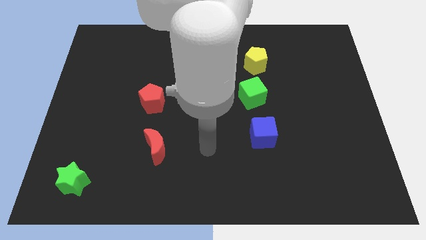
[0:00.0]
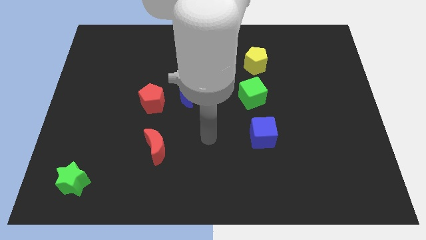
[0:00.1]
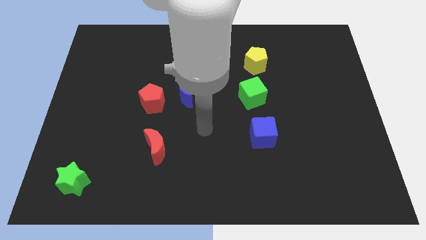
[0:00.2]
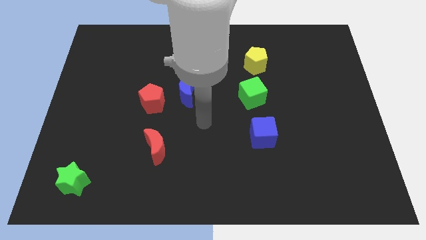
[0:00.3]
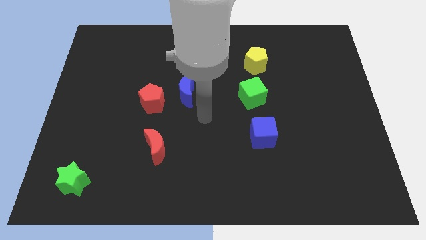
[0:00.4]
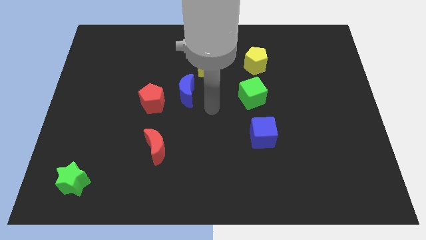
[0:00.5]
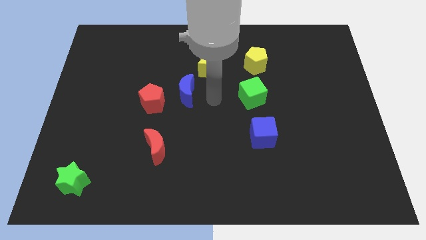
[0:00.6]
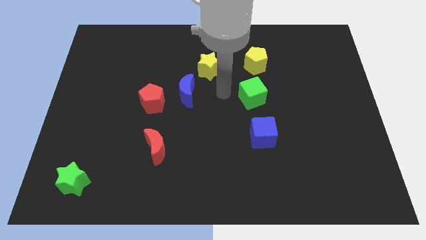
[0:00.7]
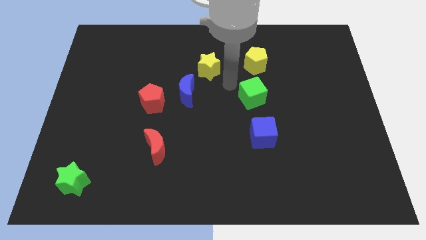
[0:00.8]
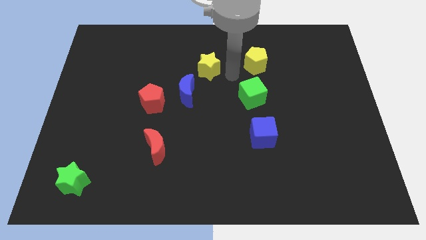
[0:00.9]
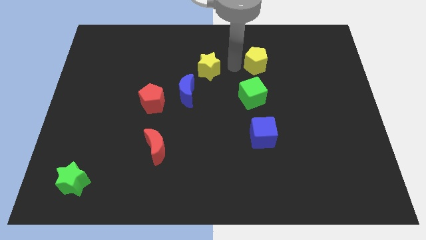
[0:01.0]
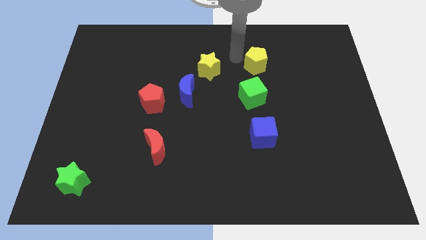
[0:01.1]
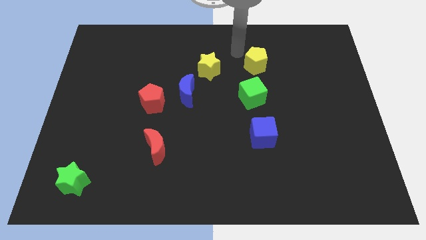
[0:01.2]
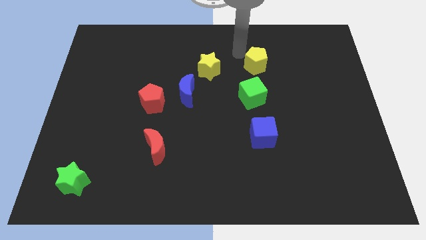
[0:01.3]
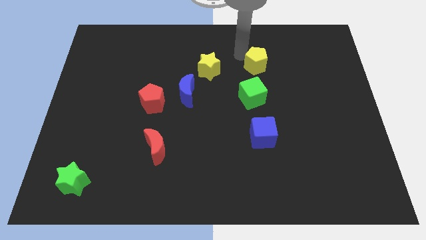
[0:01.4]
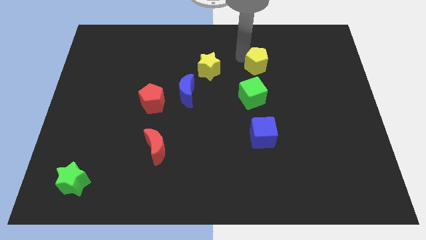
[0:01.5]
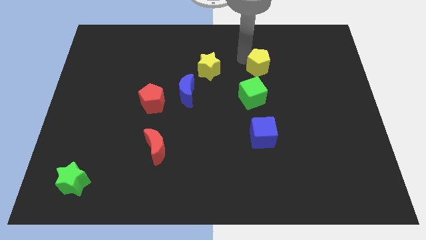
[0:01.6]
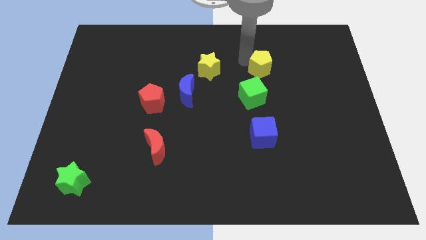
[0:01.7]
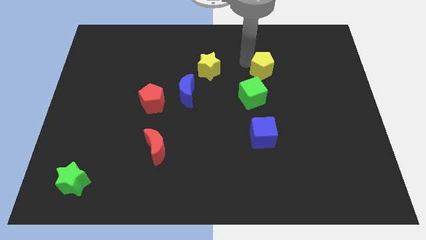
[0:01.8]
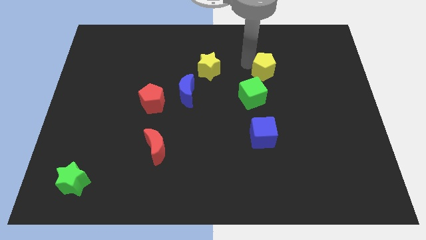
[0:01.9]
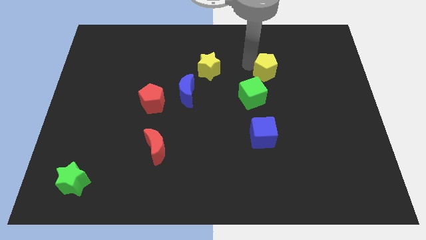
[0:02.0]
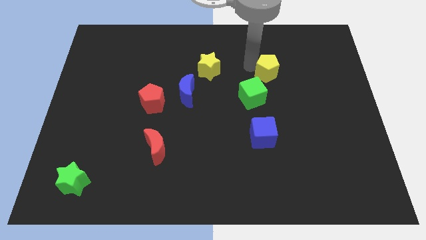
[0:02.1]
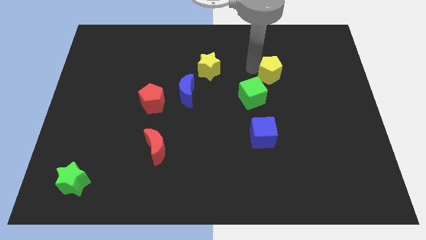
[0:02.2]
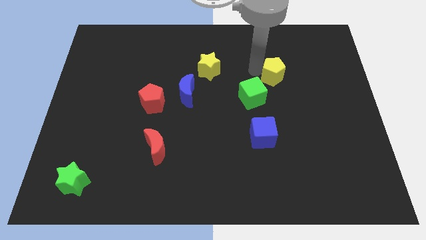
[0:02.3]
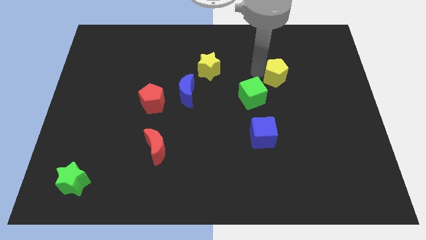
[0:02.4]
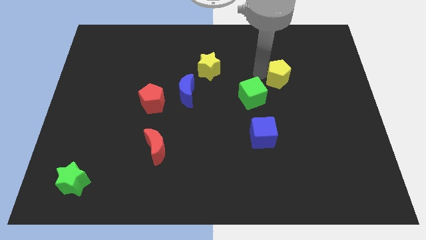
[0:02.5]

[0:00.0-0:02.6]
push the yellow pentagon downwards and to the right slightly

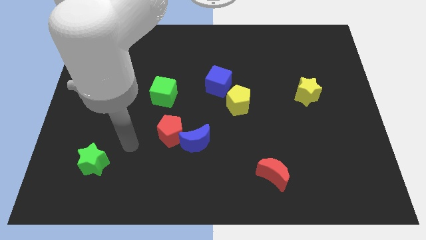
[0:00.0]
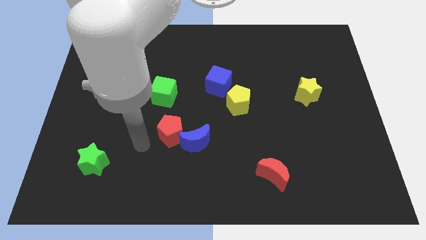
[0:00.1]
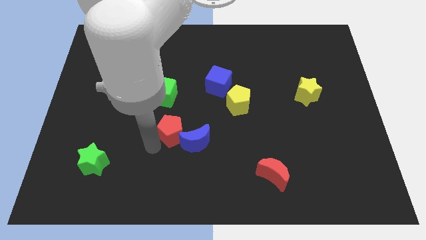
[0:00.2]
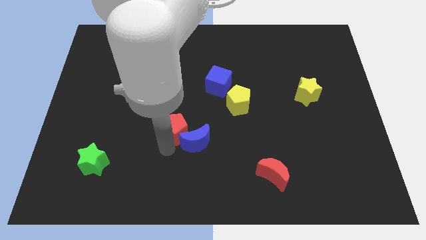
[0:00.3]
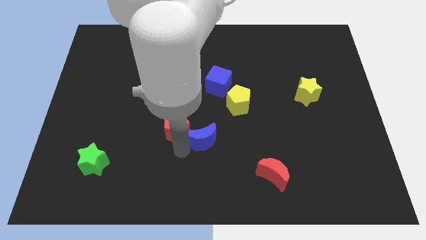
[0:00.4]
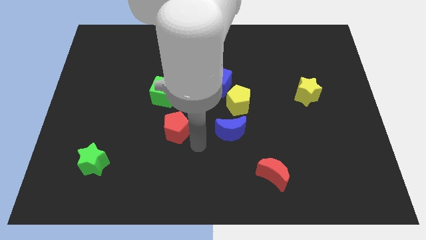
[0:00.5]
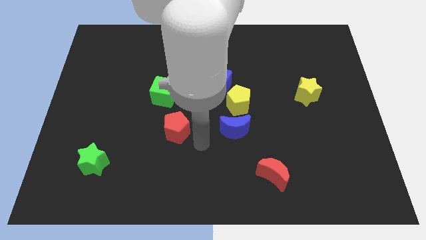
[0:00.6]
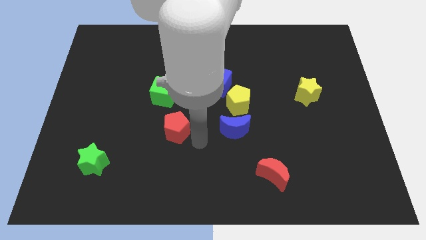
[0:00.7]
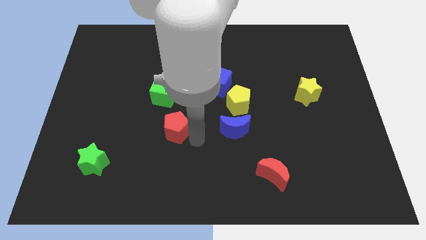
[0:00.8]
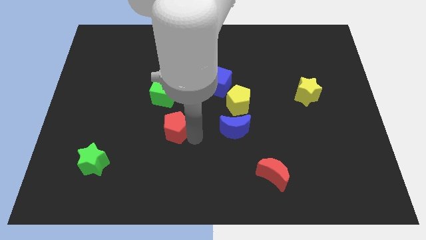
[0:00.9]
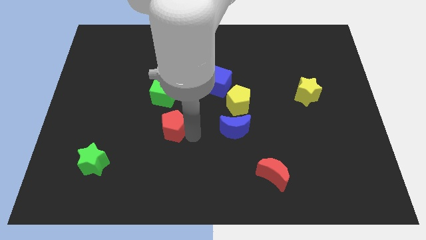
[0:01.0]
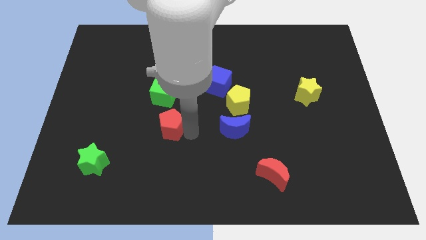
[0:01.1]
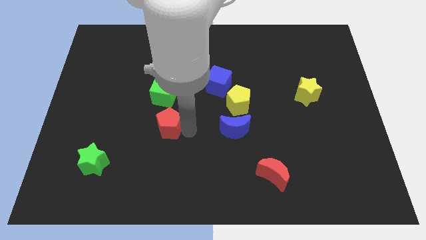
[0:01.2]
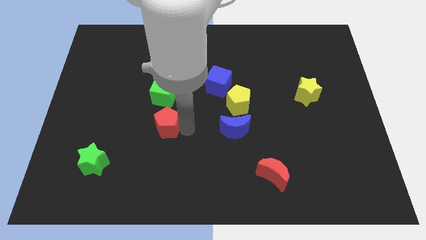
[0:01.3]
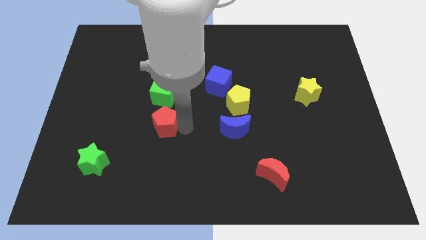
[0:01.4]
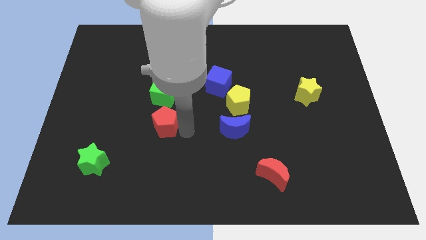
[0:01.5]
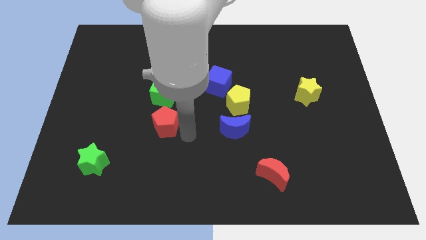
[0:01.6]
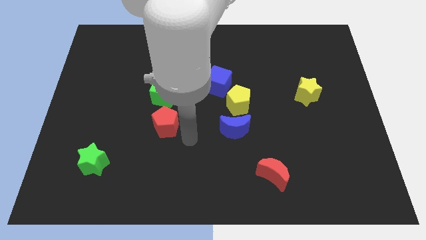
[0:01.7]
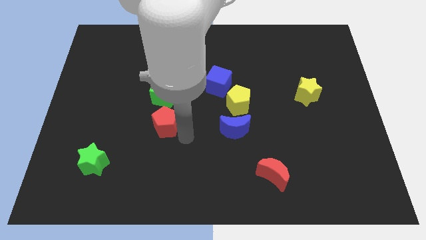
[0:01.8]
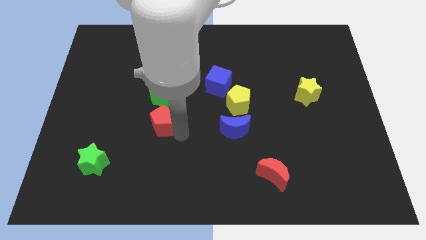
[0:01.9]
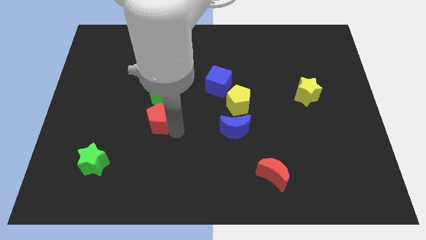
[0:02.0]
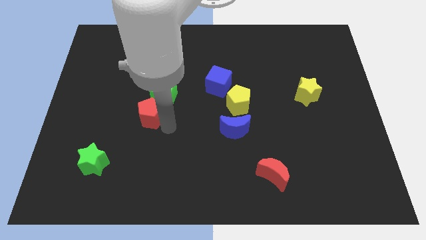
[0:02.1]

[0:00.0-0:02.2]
move the red pentagon a little bit up and to the left

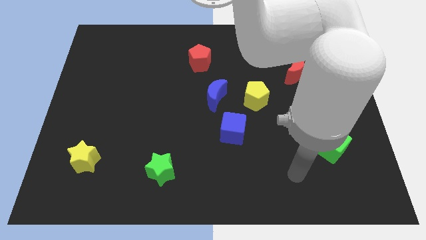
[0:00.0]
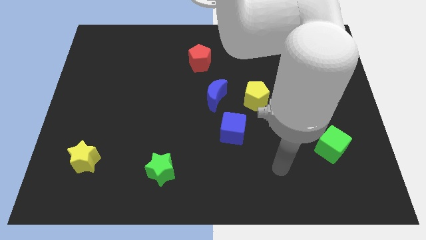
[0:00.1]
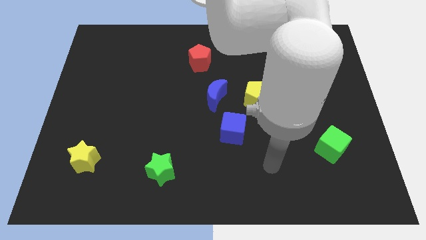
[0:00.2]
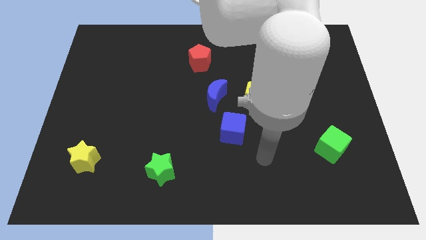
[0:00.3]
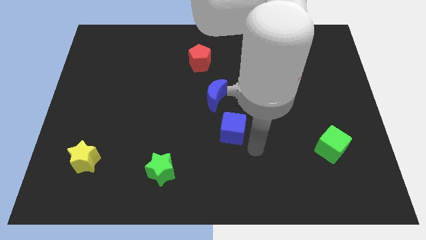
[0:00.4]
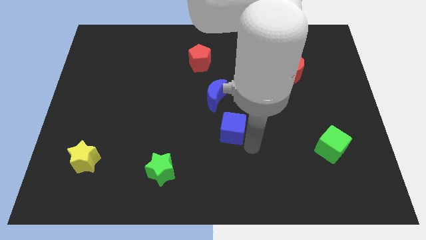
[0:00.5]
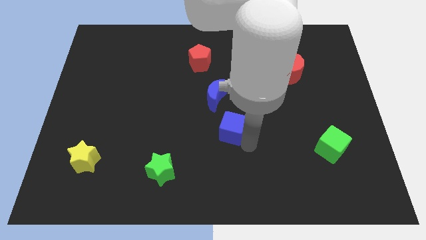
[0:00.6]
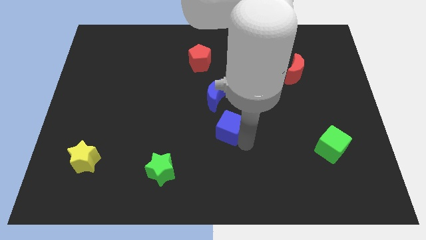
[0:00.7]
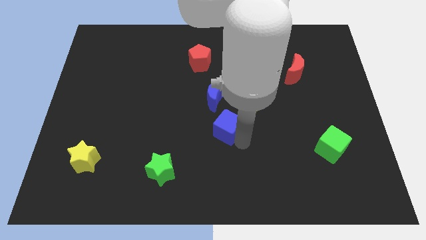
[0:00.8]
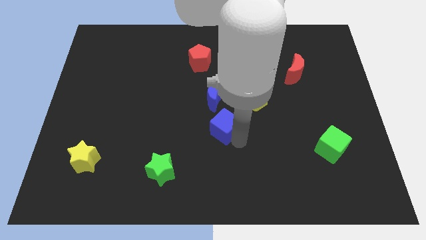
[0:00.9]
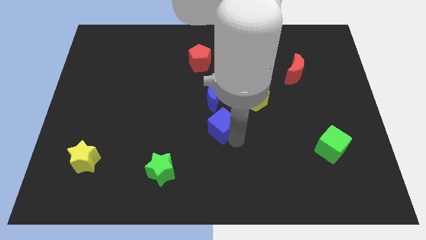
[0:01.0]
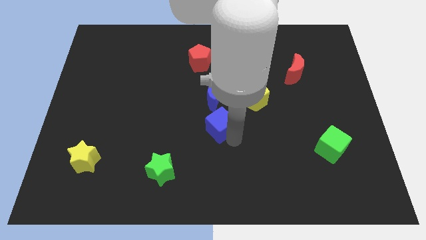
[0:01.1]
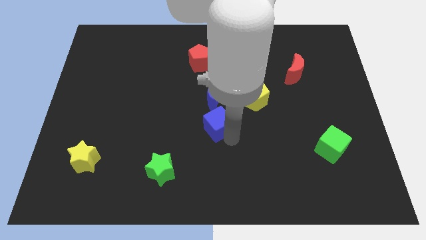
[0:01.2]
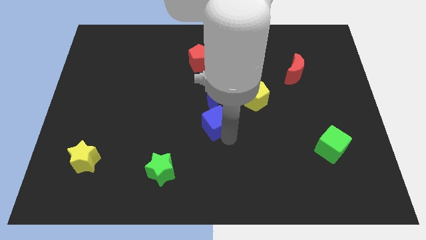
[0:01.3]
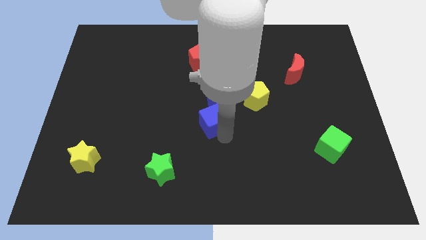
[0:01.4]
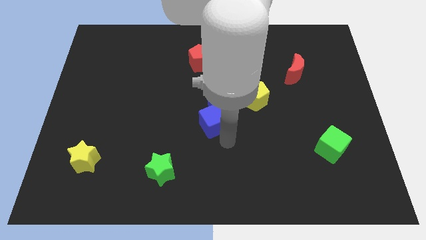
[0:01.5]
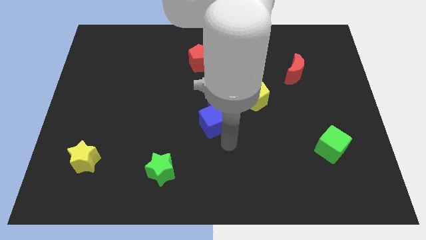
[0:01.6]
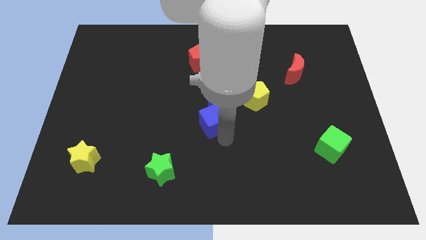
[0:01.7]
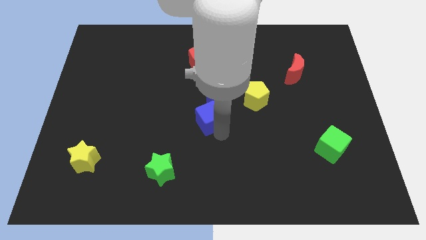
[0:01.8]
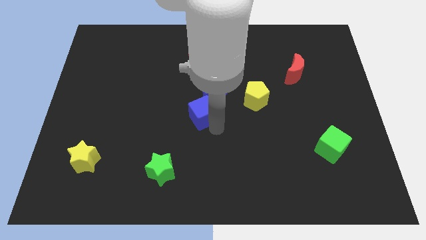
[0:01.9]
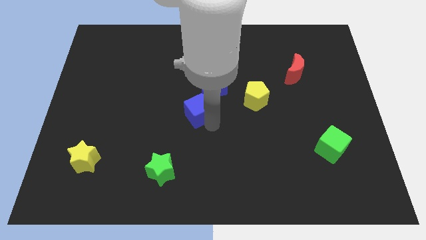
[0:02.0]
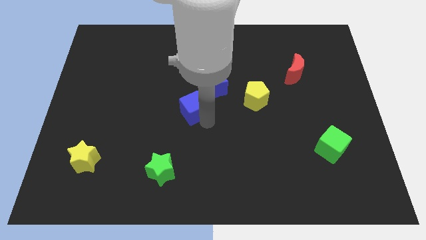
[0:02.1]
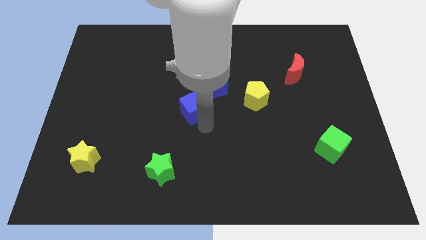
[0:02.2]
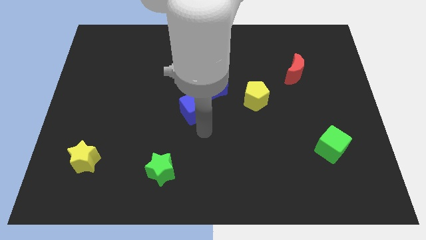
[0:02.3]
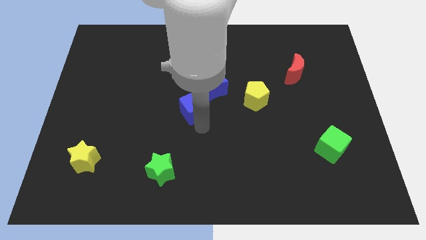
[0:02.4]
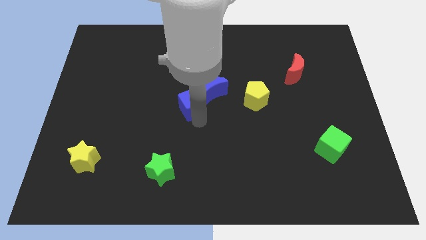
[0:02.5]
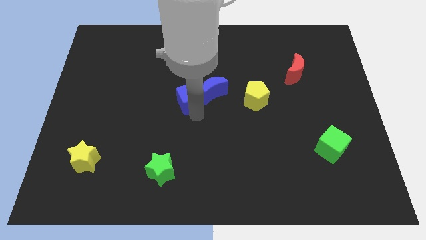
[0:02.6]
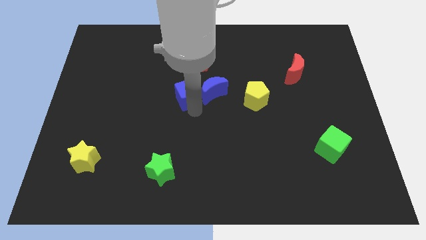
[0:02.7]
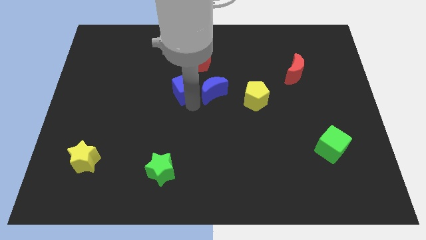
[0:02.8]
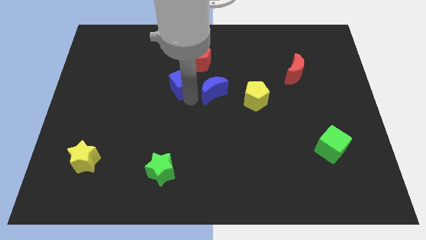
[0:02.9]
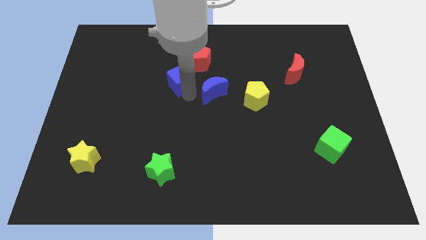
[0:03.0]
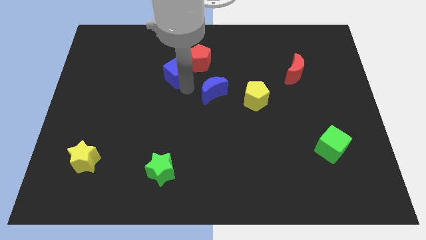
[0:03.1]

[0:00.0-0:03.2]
move the blue cube up and left diagonally

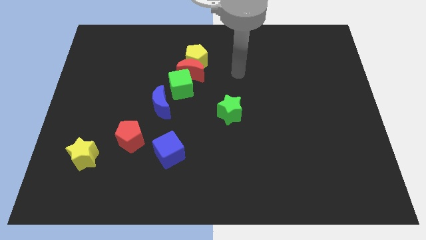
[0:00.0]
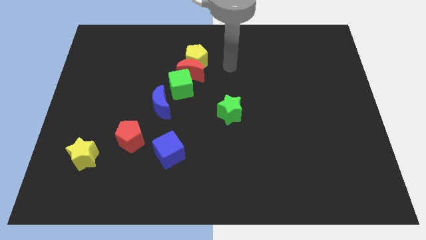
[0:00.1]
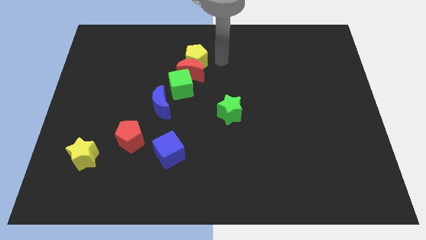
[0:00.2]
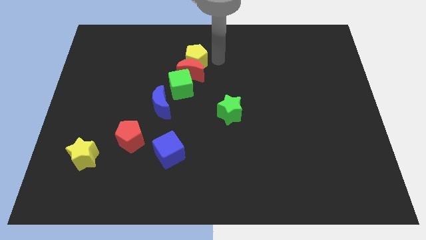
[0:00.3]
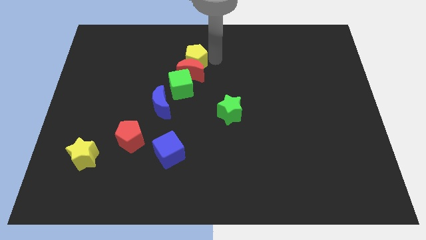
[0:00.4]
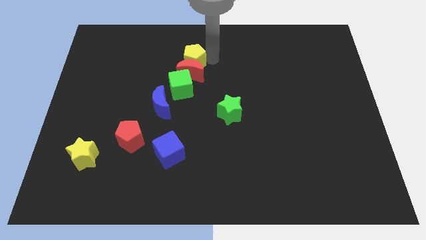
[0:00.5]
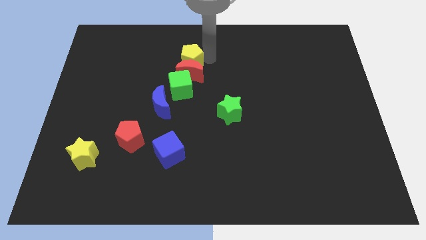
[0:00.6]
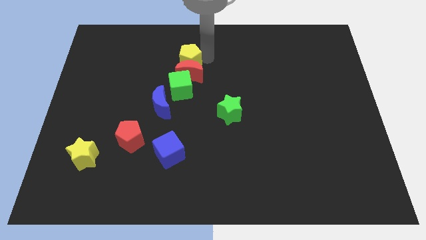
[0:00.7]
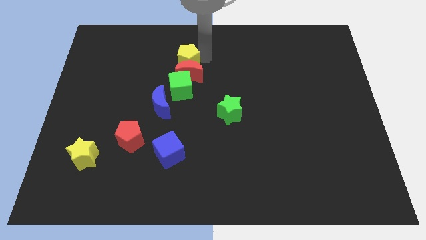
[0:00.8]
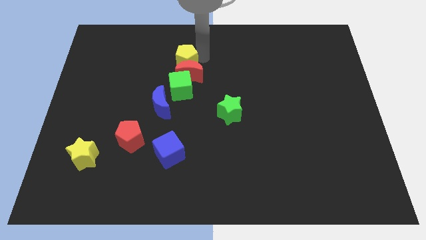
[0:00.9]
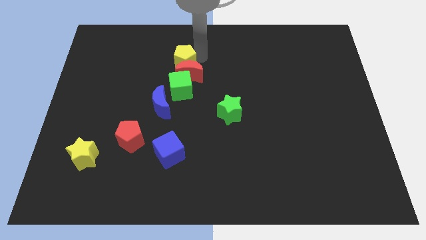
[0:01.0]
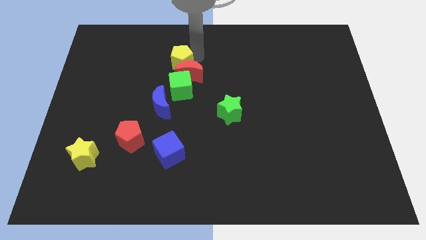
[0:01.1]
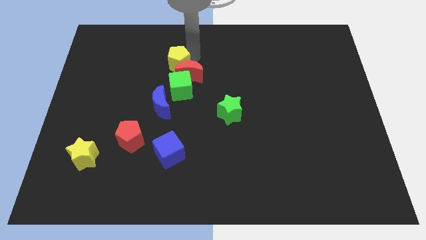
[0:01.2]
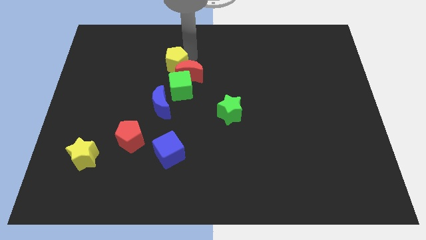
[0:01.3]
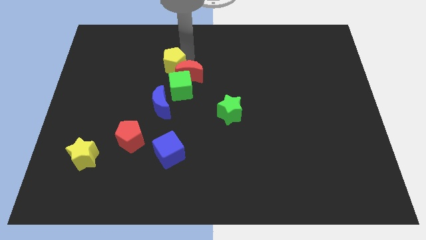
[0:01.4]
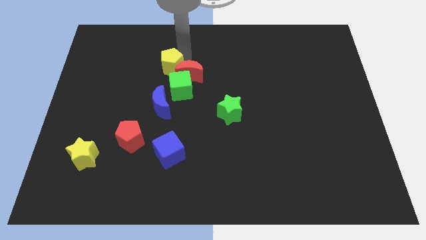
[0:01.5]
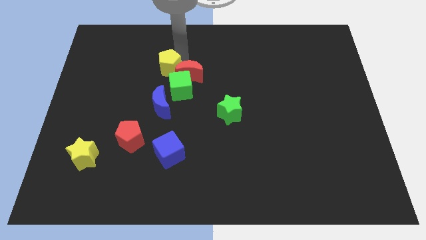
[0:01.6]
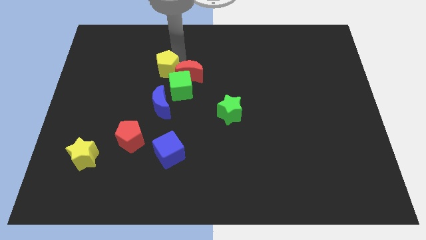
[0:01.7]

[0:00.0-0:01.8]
slightly slide the yellow pentagon to the left
